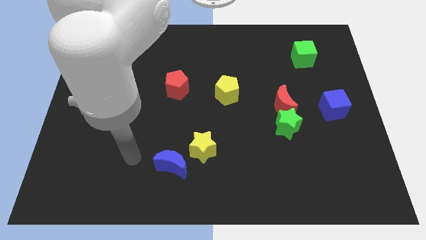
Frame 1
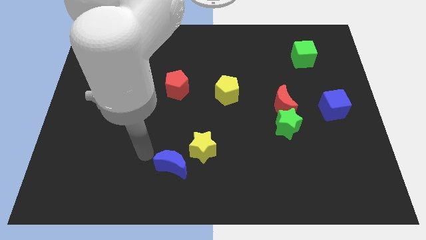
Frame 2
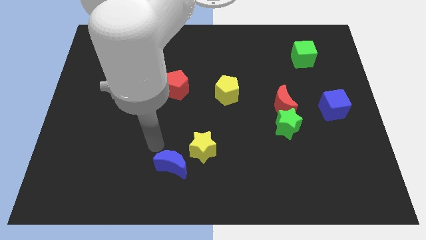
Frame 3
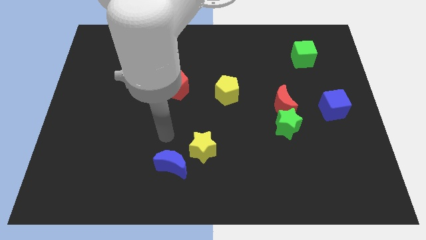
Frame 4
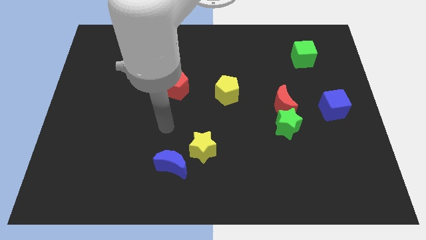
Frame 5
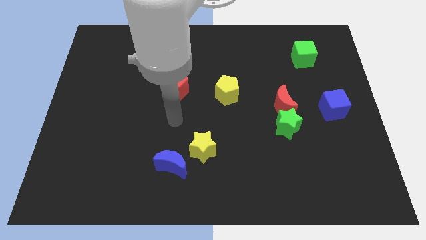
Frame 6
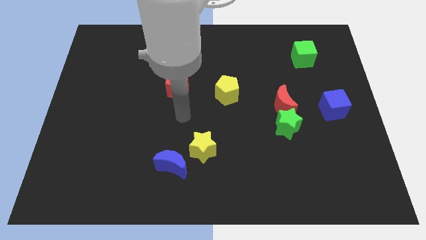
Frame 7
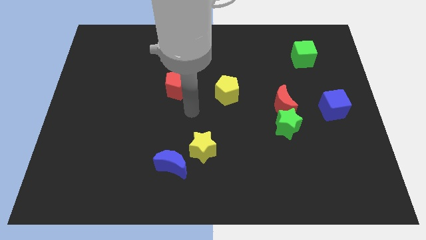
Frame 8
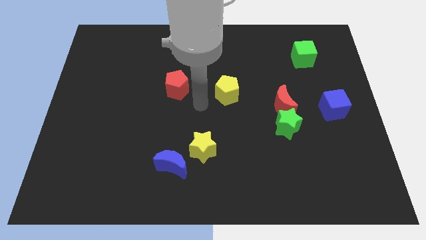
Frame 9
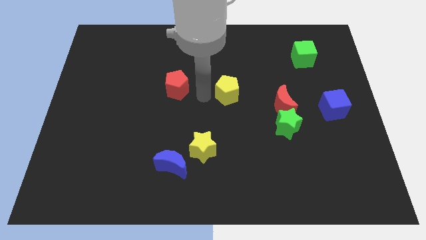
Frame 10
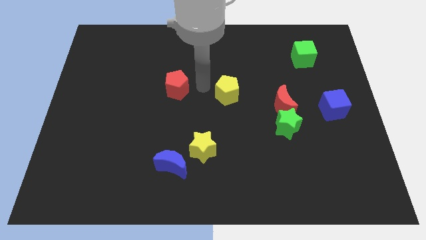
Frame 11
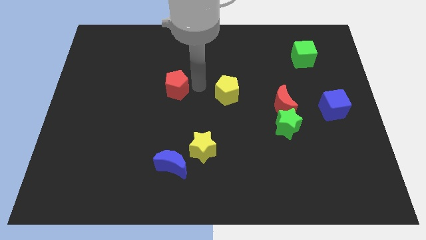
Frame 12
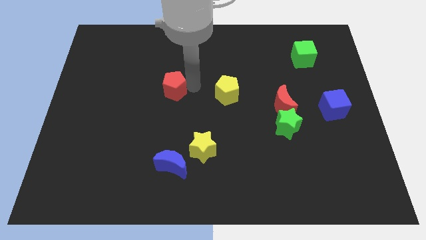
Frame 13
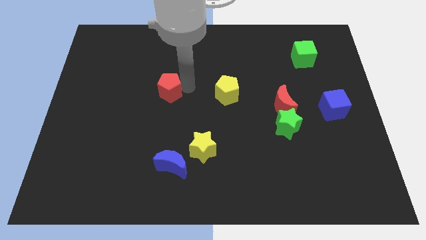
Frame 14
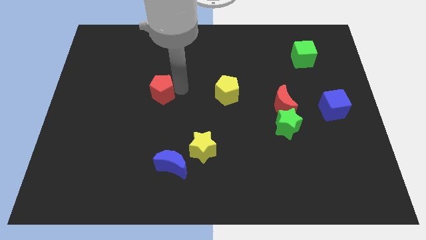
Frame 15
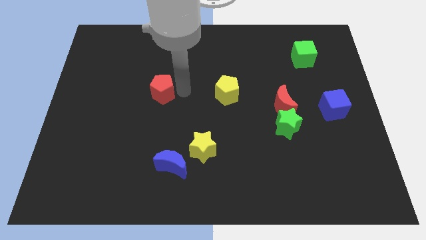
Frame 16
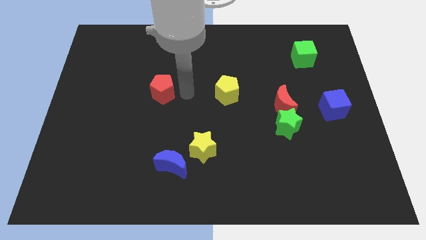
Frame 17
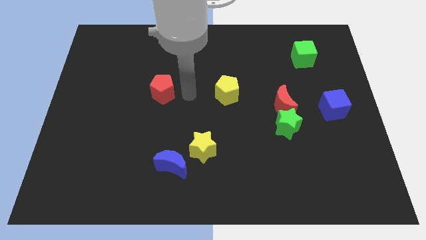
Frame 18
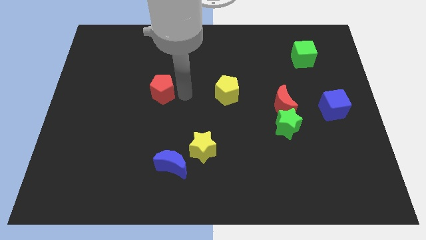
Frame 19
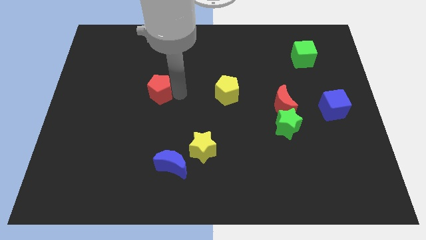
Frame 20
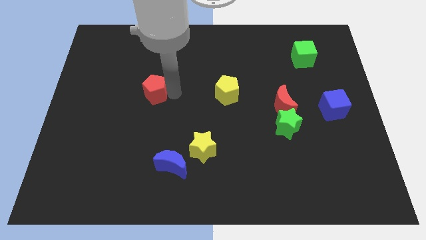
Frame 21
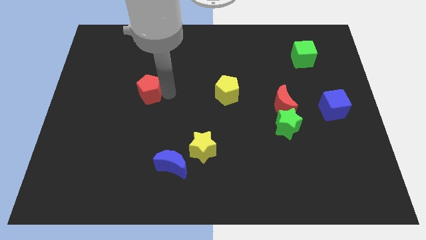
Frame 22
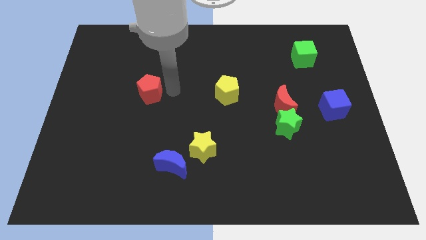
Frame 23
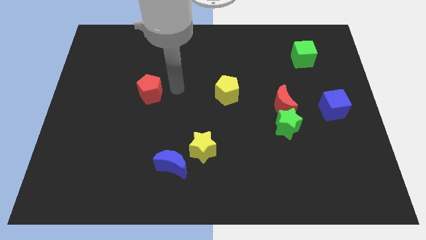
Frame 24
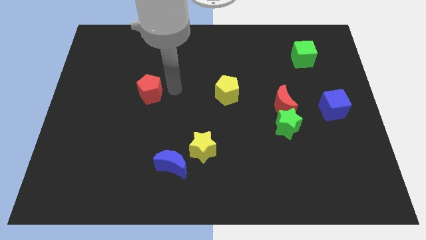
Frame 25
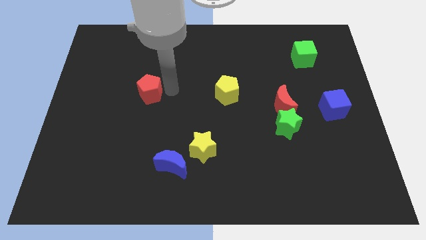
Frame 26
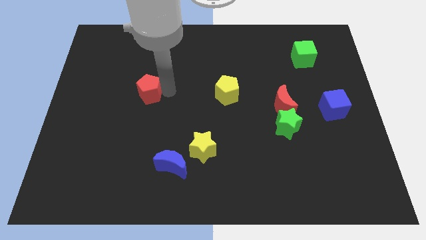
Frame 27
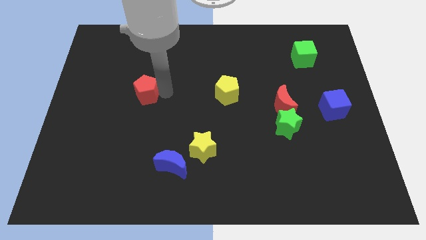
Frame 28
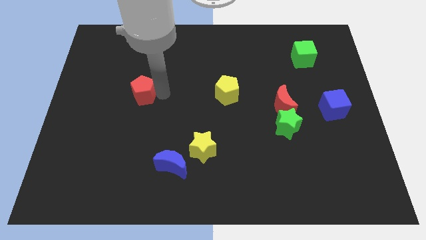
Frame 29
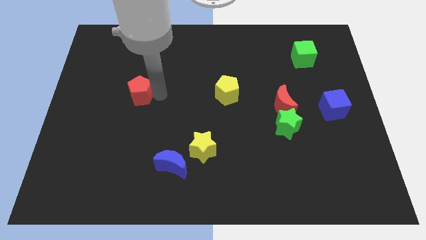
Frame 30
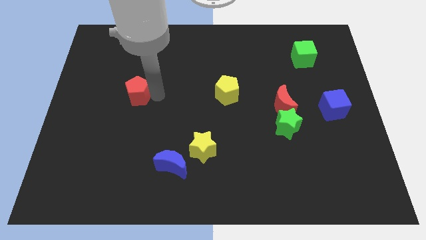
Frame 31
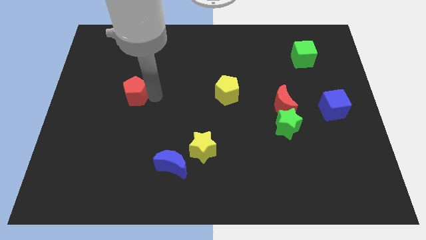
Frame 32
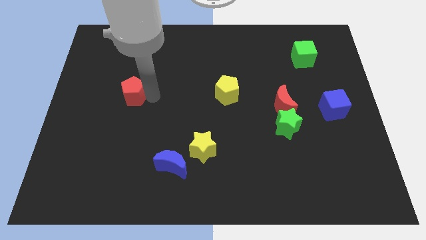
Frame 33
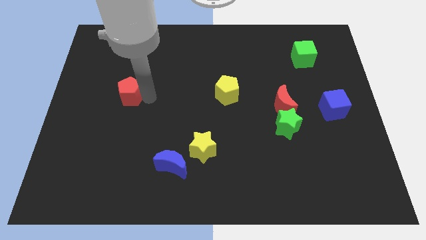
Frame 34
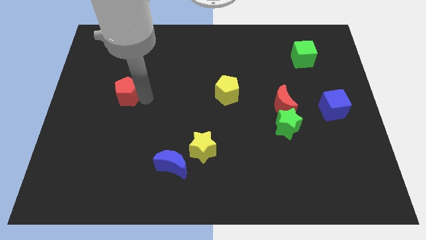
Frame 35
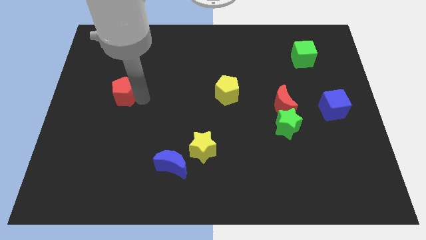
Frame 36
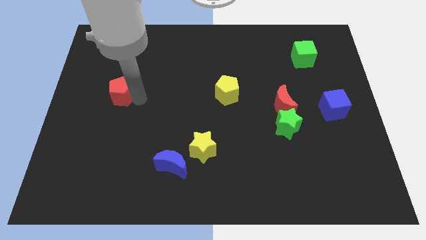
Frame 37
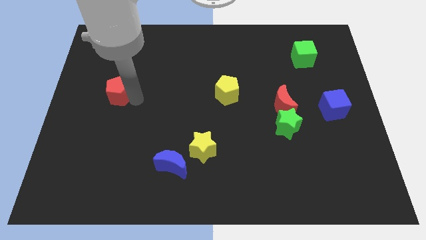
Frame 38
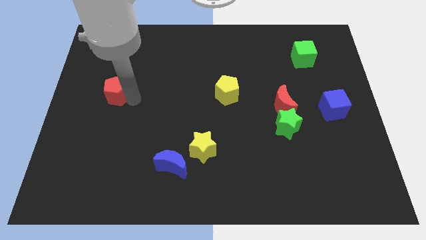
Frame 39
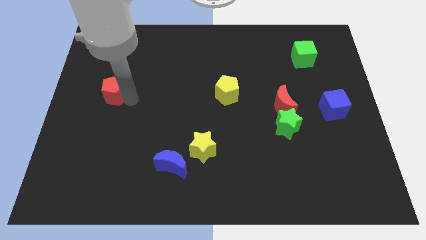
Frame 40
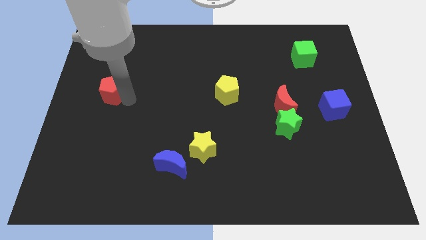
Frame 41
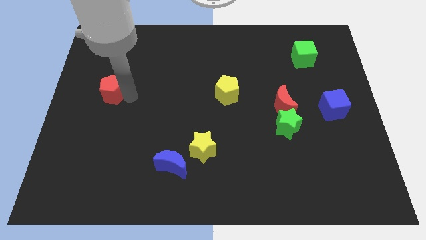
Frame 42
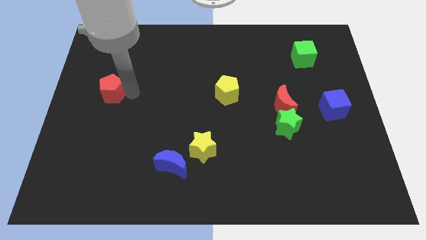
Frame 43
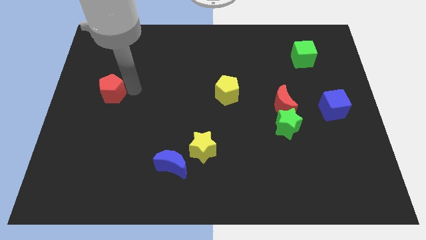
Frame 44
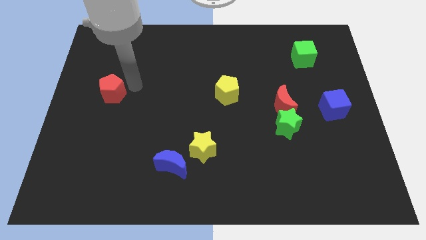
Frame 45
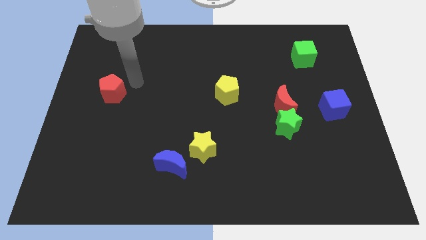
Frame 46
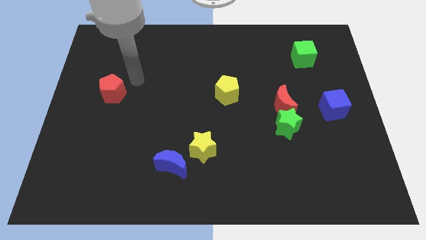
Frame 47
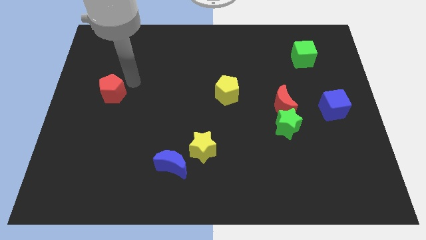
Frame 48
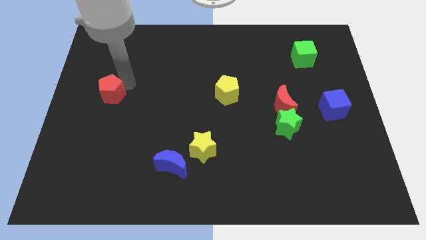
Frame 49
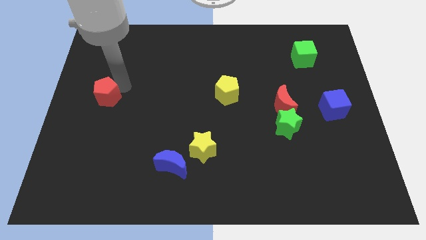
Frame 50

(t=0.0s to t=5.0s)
slide the red pentagon to the left side of the board

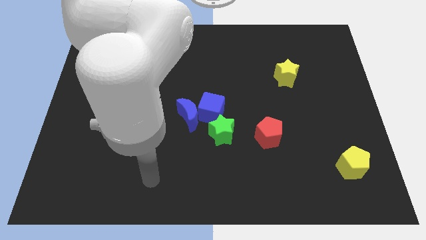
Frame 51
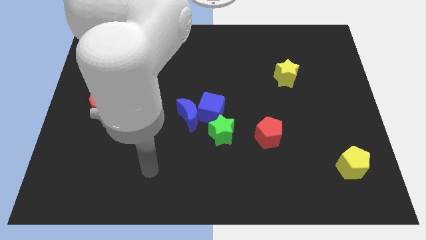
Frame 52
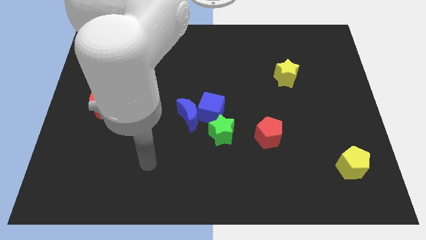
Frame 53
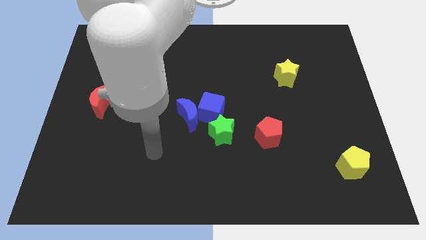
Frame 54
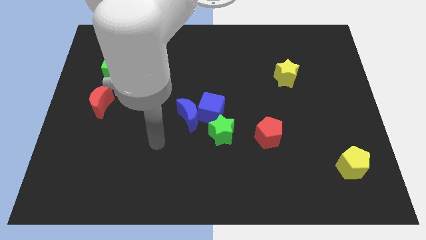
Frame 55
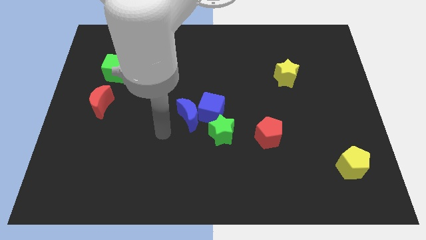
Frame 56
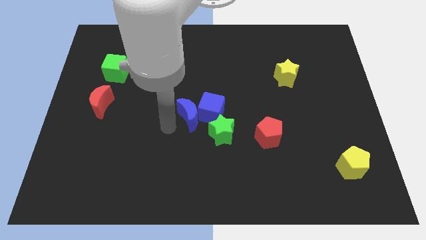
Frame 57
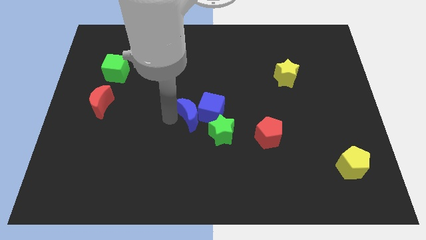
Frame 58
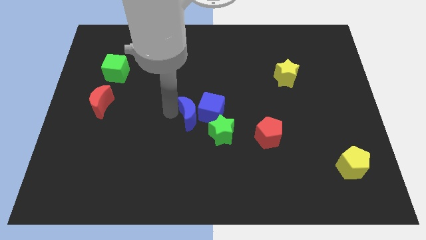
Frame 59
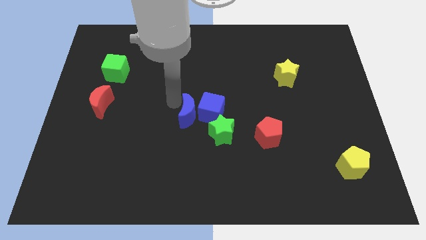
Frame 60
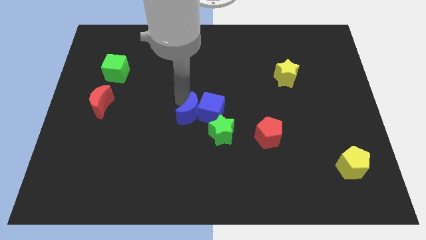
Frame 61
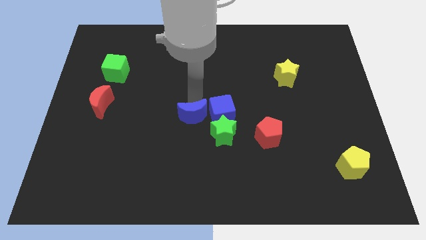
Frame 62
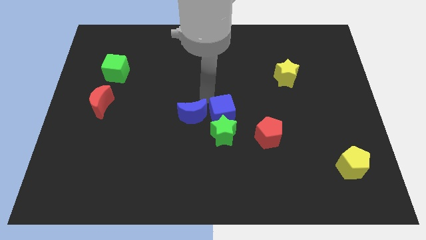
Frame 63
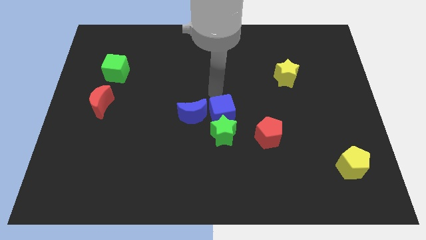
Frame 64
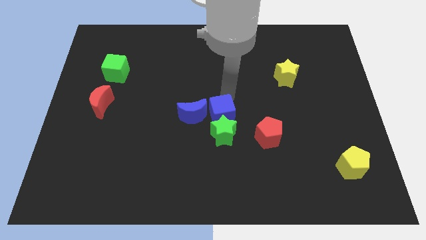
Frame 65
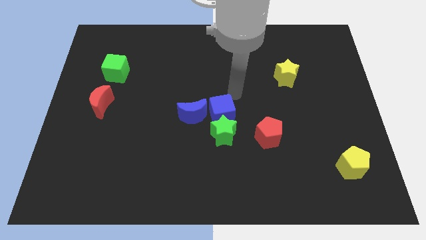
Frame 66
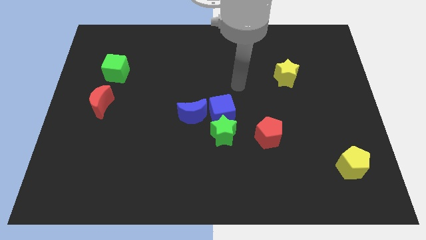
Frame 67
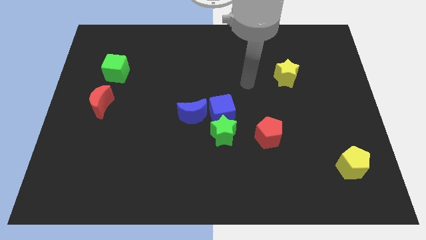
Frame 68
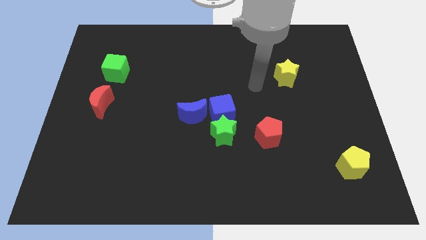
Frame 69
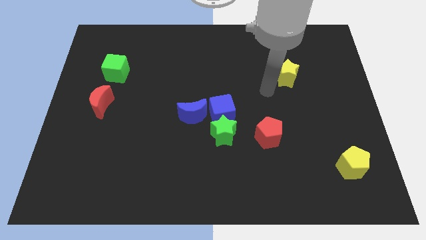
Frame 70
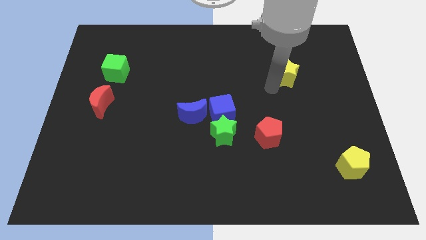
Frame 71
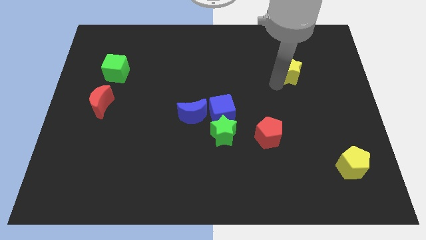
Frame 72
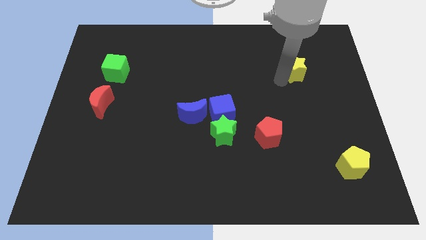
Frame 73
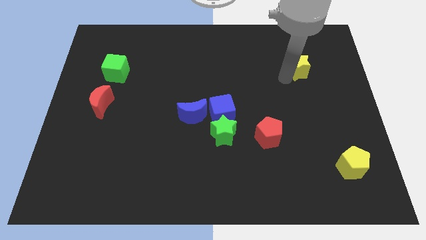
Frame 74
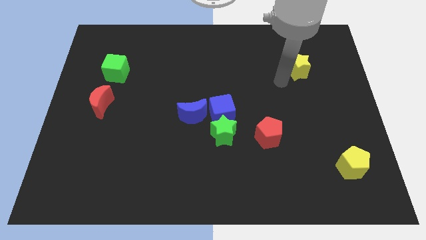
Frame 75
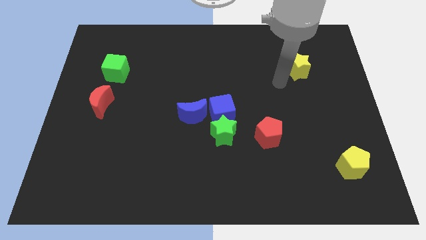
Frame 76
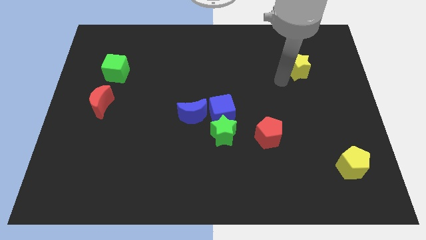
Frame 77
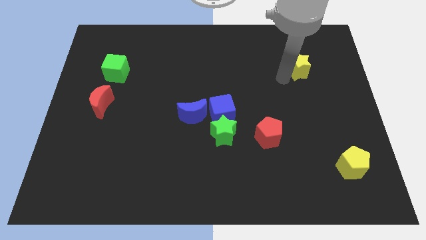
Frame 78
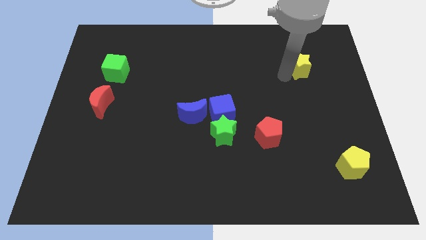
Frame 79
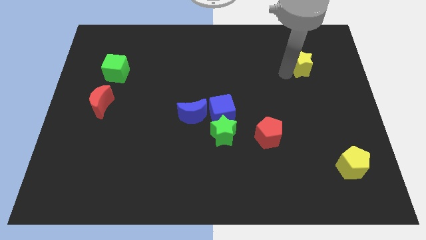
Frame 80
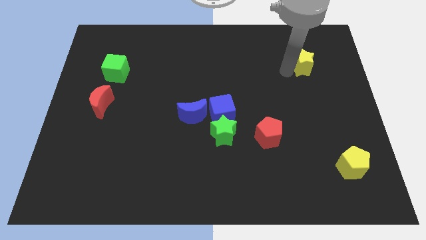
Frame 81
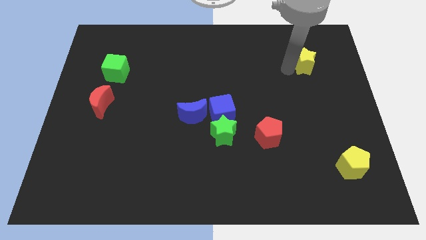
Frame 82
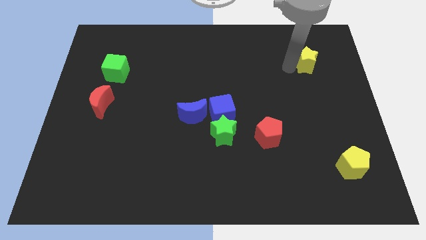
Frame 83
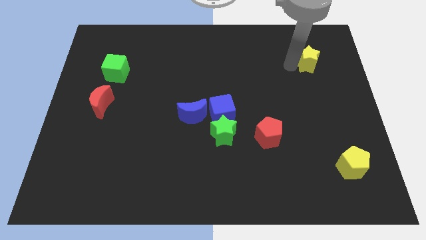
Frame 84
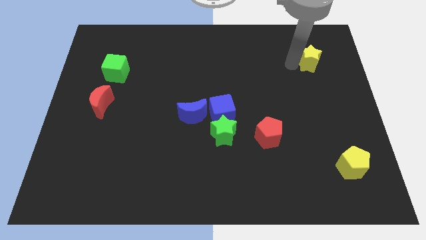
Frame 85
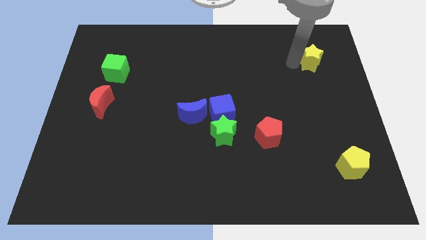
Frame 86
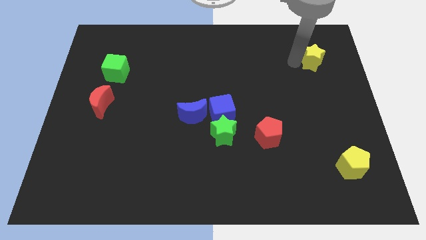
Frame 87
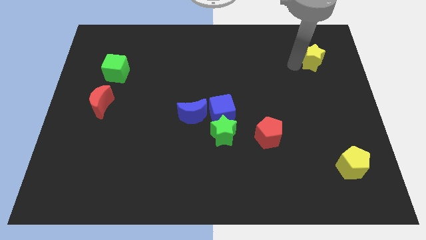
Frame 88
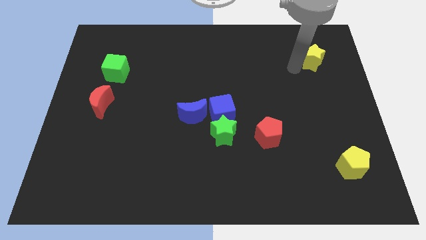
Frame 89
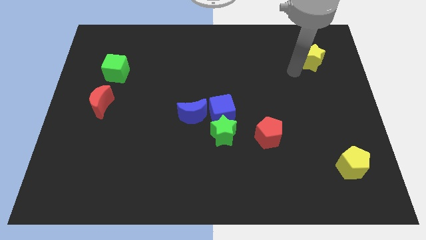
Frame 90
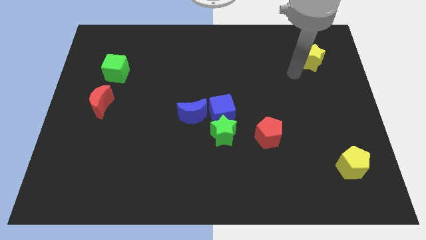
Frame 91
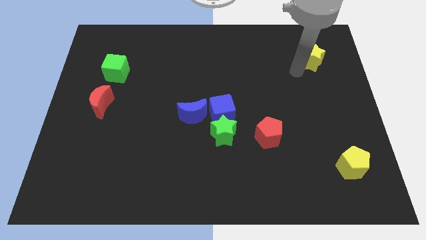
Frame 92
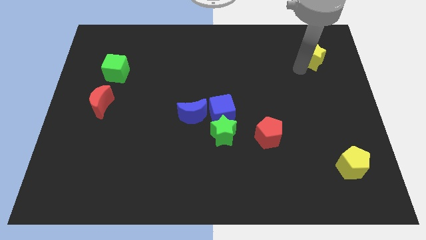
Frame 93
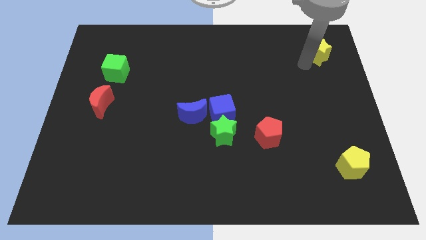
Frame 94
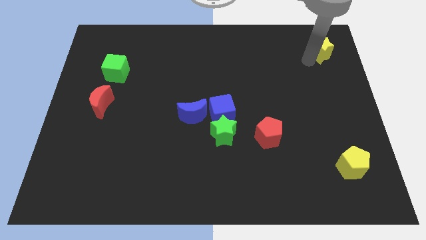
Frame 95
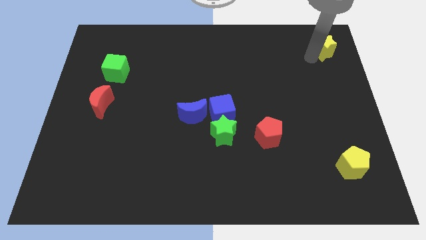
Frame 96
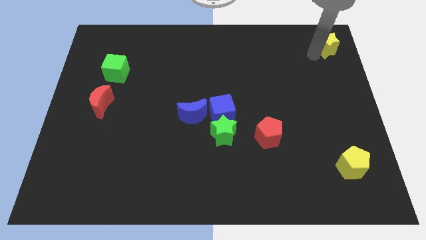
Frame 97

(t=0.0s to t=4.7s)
put the yellow star to the top right
